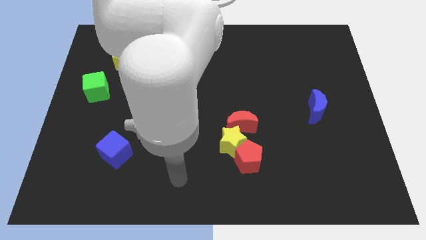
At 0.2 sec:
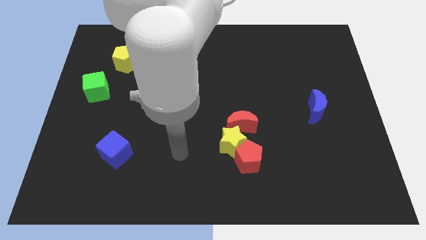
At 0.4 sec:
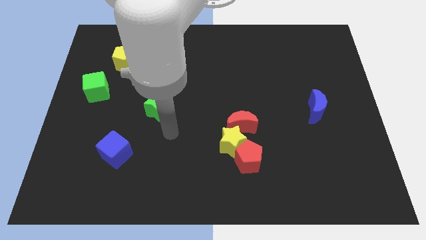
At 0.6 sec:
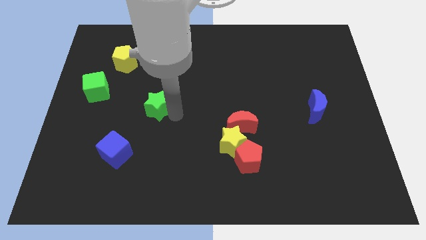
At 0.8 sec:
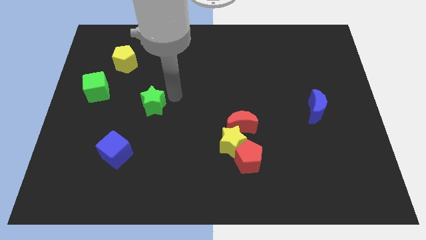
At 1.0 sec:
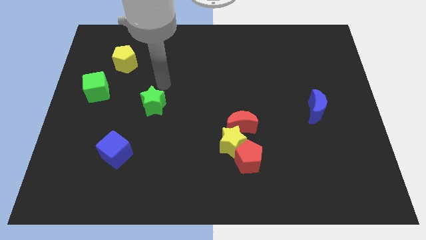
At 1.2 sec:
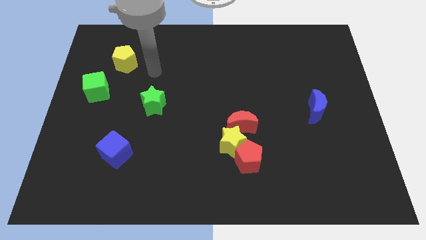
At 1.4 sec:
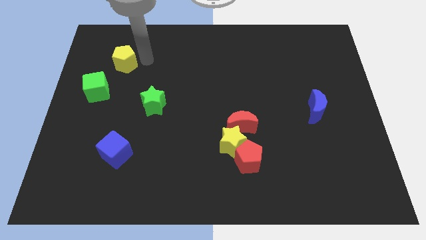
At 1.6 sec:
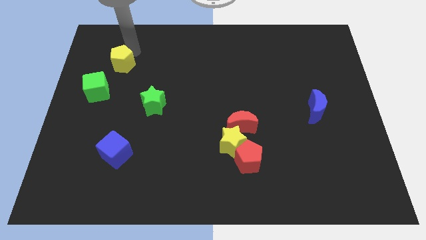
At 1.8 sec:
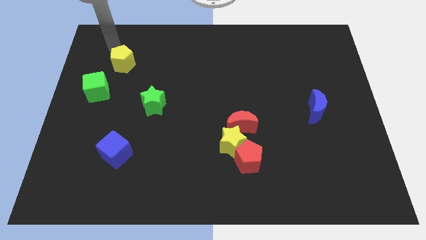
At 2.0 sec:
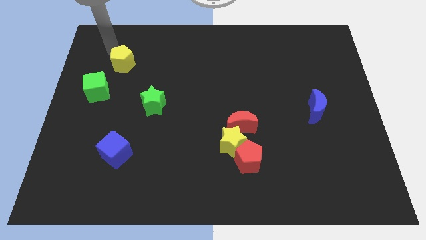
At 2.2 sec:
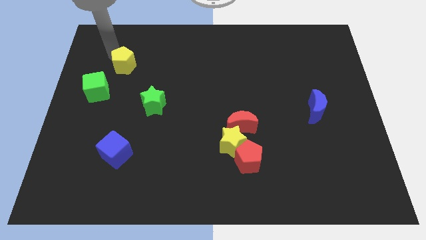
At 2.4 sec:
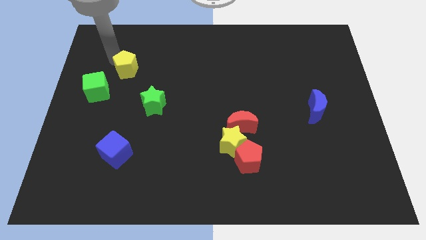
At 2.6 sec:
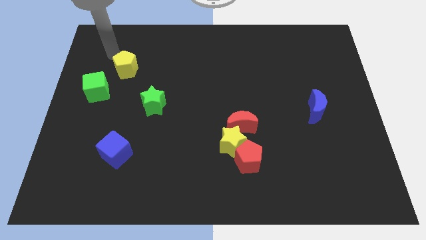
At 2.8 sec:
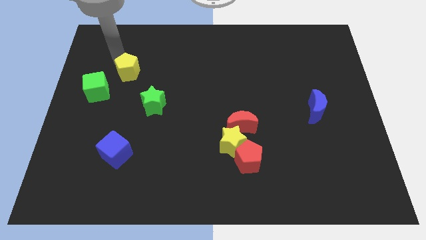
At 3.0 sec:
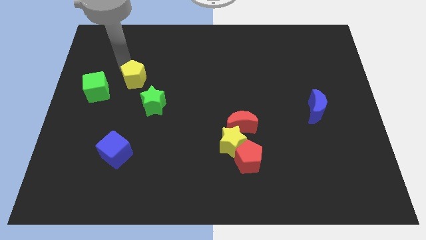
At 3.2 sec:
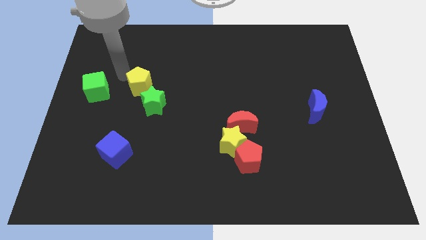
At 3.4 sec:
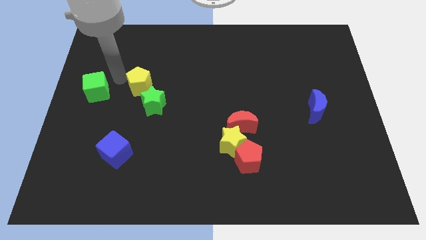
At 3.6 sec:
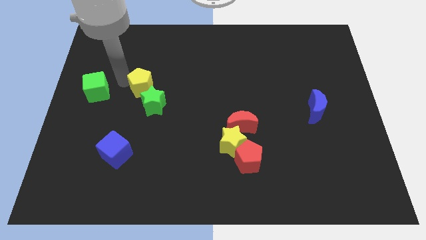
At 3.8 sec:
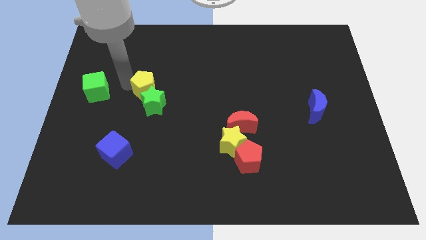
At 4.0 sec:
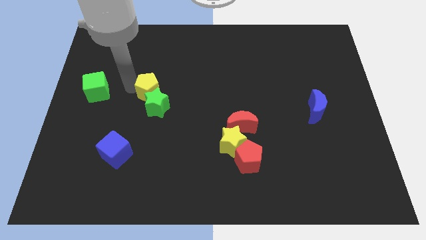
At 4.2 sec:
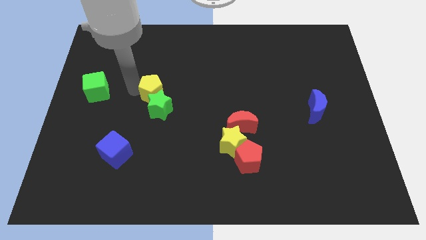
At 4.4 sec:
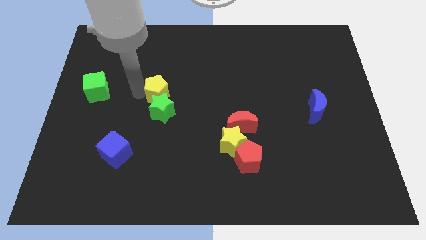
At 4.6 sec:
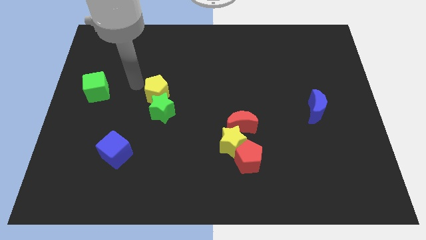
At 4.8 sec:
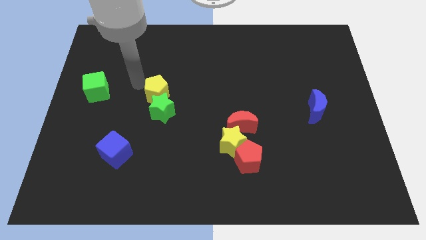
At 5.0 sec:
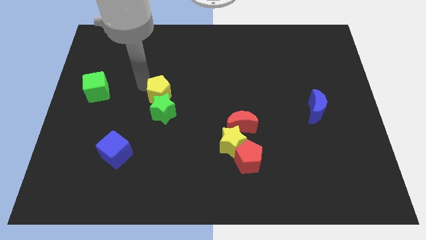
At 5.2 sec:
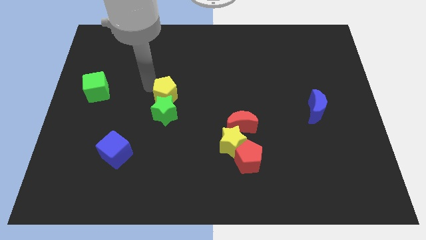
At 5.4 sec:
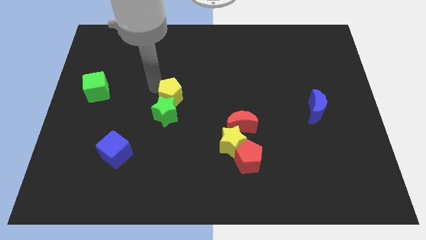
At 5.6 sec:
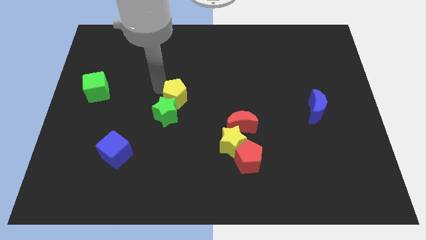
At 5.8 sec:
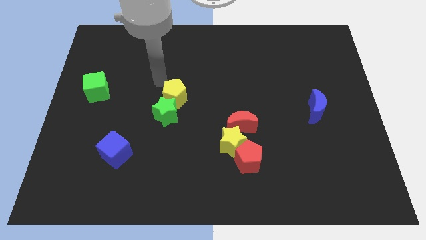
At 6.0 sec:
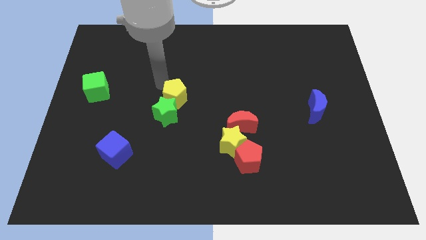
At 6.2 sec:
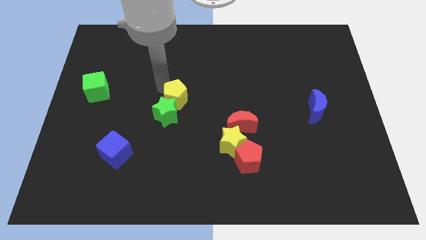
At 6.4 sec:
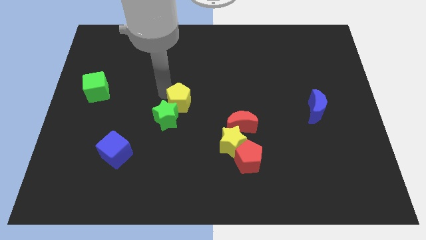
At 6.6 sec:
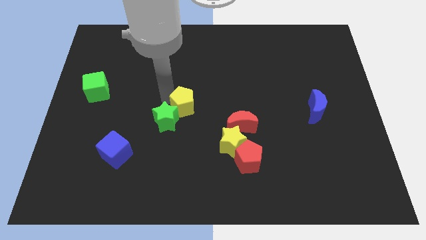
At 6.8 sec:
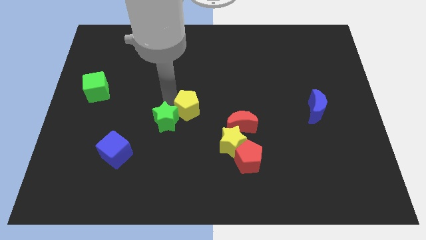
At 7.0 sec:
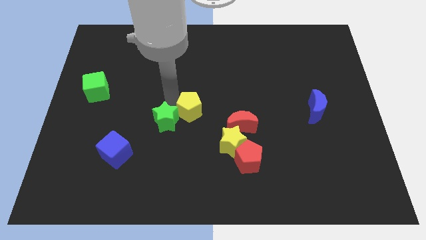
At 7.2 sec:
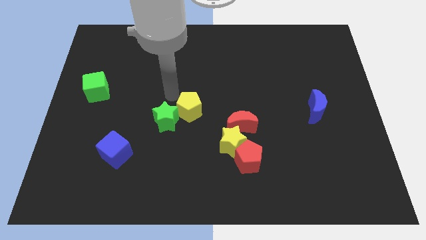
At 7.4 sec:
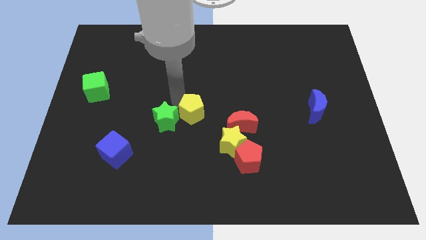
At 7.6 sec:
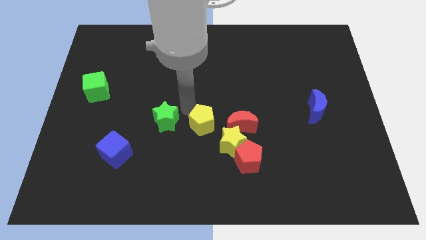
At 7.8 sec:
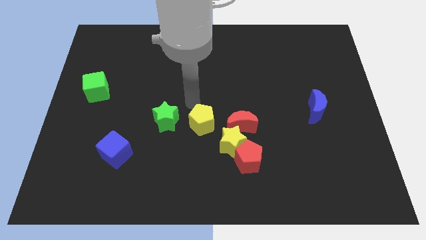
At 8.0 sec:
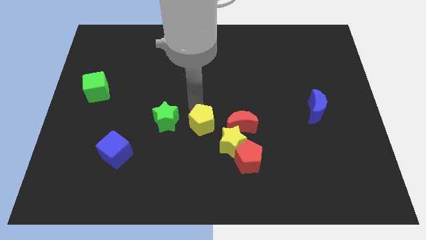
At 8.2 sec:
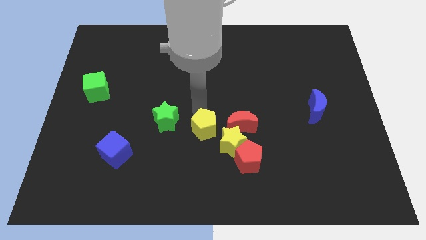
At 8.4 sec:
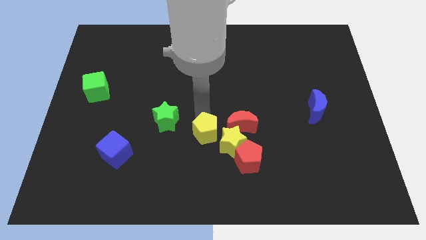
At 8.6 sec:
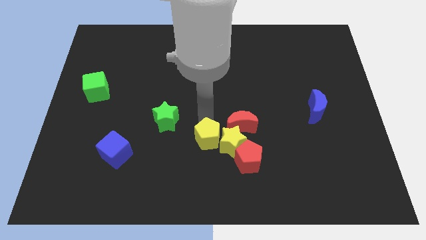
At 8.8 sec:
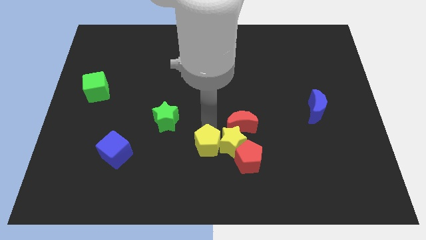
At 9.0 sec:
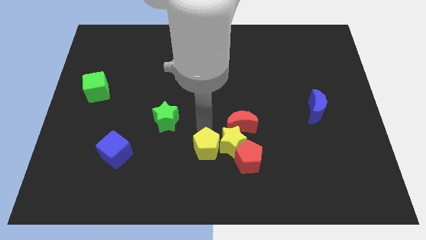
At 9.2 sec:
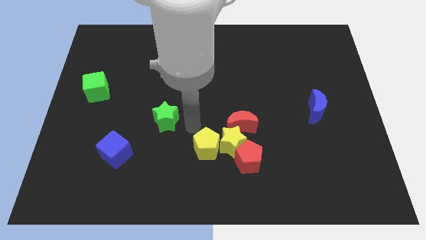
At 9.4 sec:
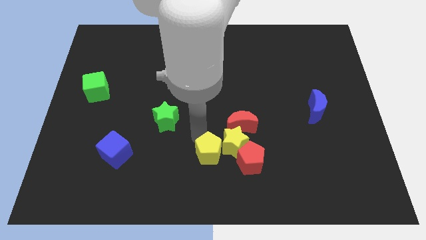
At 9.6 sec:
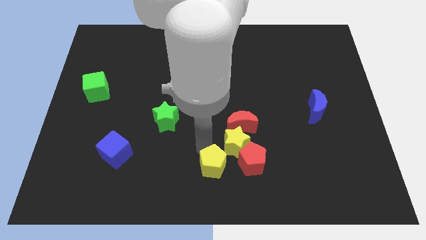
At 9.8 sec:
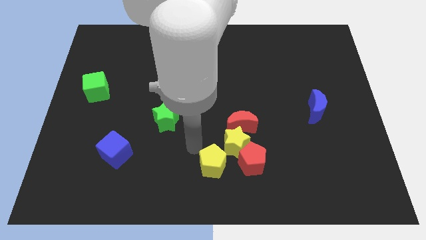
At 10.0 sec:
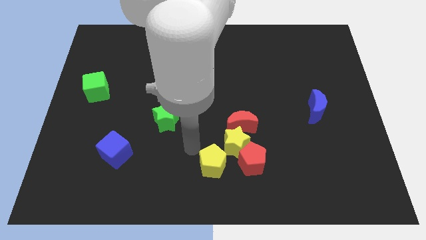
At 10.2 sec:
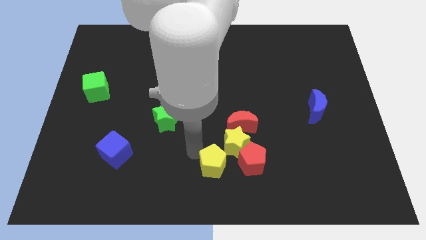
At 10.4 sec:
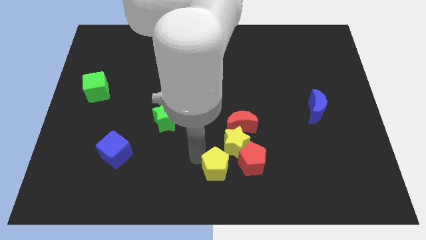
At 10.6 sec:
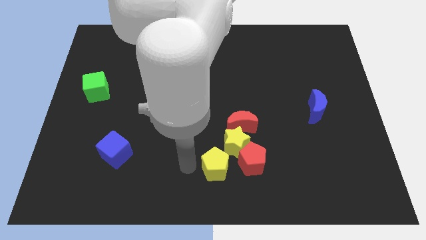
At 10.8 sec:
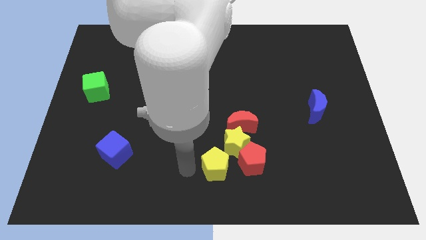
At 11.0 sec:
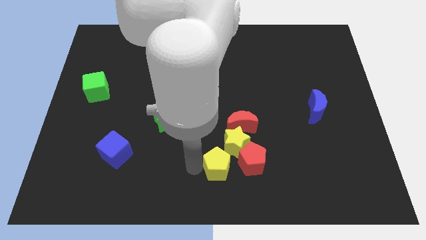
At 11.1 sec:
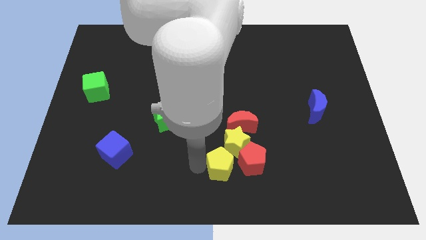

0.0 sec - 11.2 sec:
slide the yellow pentagon to the bottom of the red moon

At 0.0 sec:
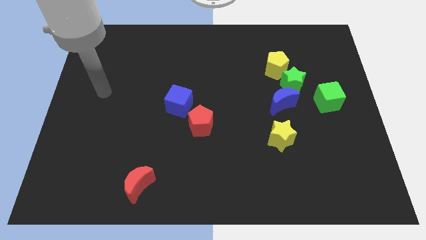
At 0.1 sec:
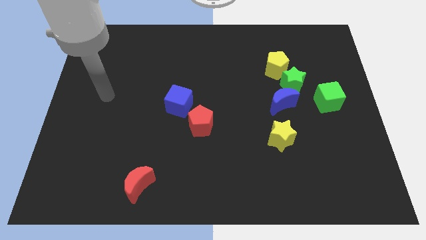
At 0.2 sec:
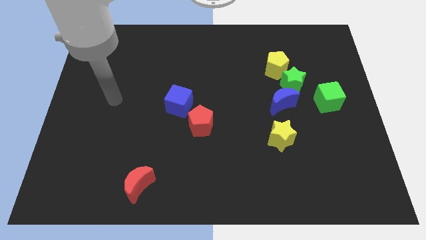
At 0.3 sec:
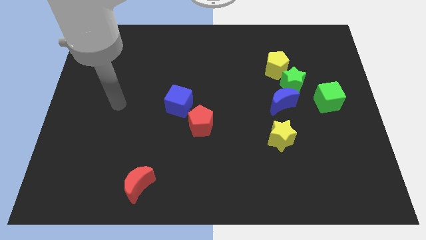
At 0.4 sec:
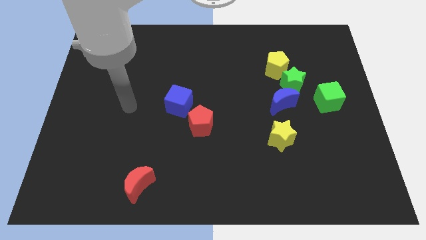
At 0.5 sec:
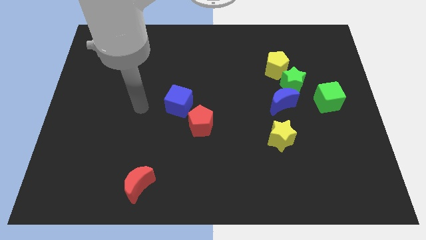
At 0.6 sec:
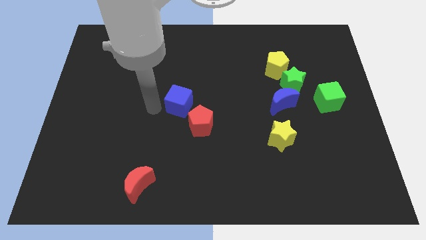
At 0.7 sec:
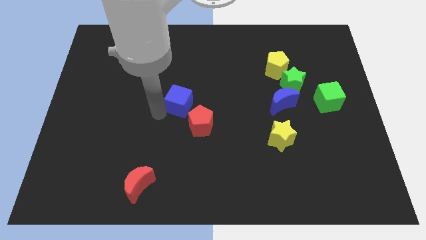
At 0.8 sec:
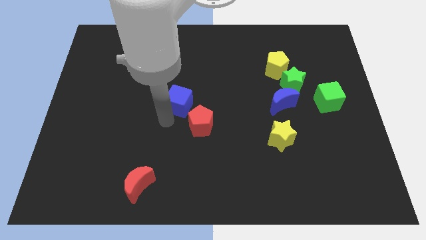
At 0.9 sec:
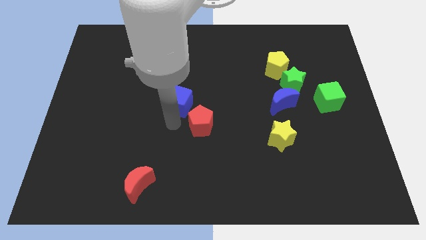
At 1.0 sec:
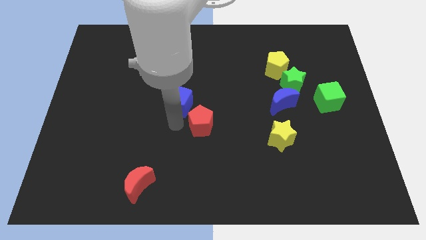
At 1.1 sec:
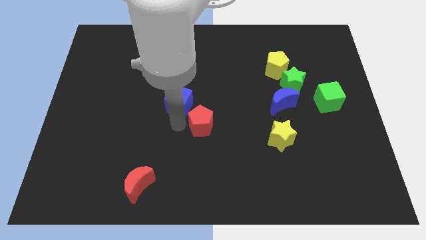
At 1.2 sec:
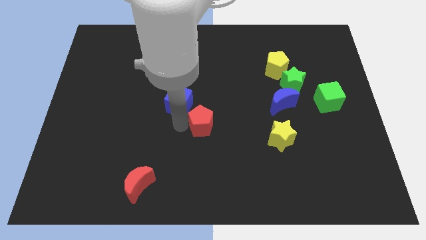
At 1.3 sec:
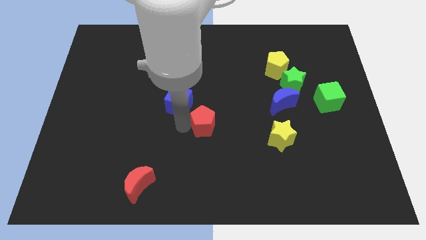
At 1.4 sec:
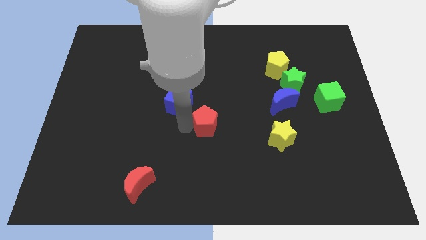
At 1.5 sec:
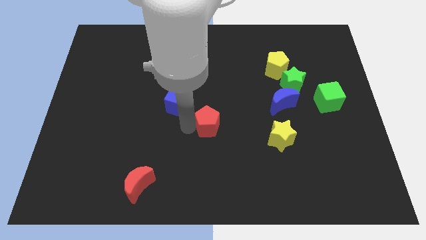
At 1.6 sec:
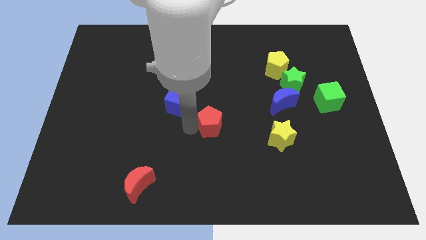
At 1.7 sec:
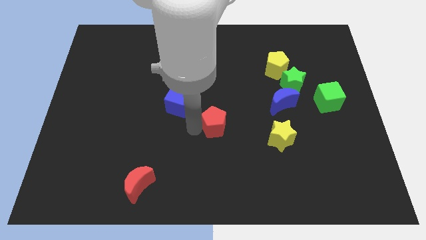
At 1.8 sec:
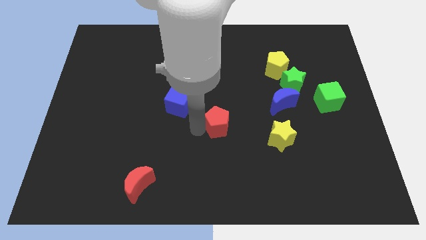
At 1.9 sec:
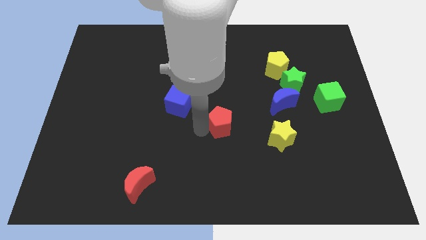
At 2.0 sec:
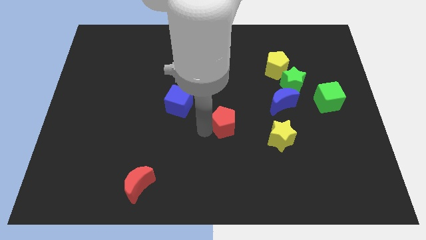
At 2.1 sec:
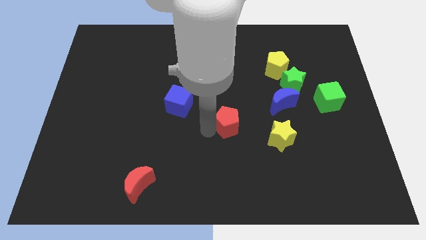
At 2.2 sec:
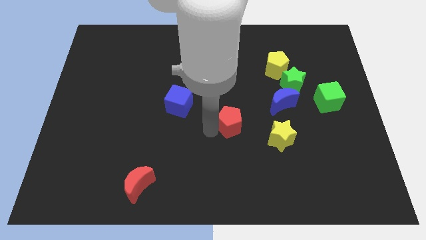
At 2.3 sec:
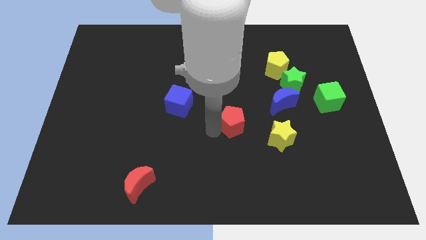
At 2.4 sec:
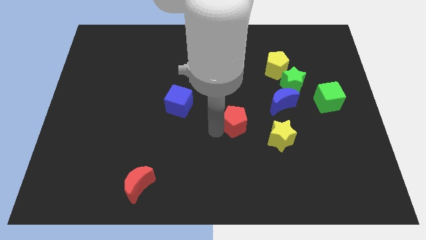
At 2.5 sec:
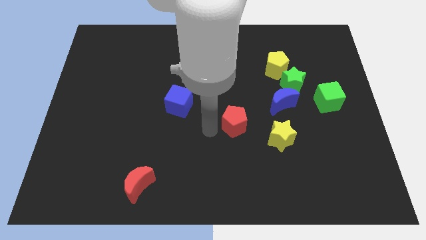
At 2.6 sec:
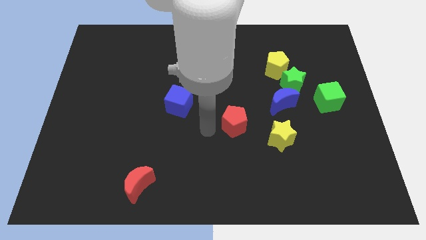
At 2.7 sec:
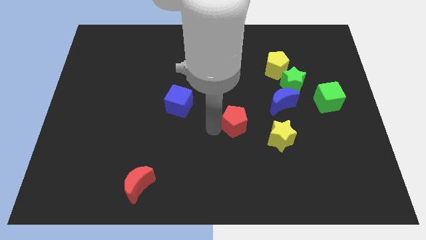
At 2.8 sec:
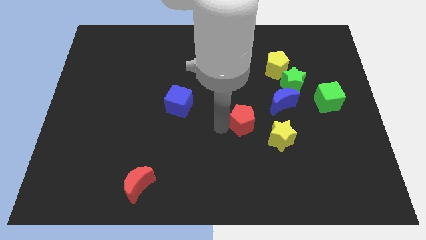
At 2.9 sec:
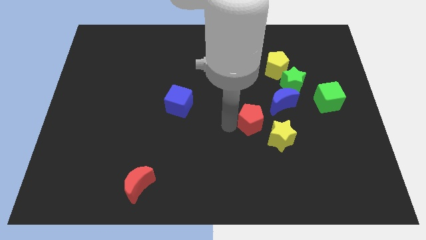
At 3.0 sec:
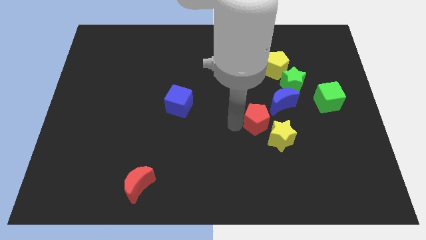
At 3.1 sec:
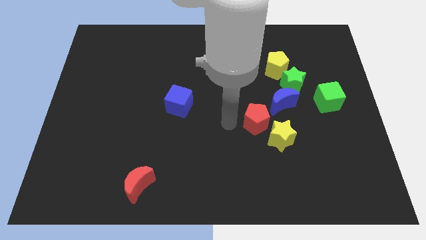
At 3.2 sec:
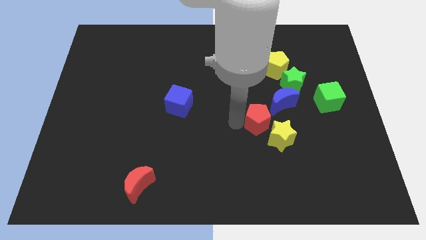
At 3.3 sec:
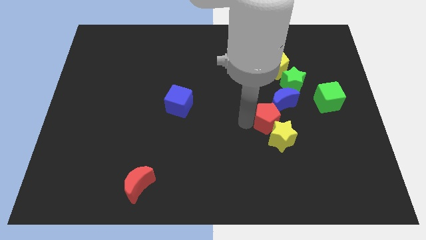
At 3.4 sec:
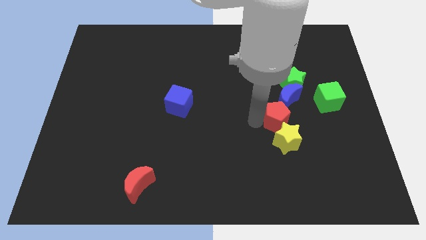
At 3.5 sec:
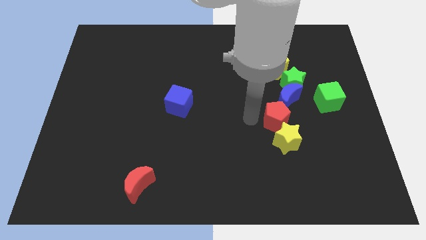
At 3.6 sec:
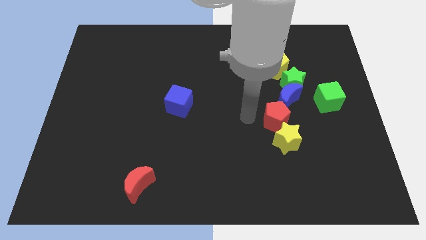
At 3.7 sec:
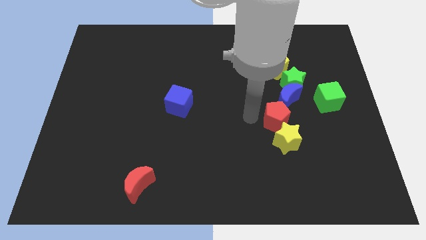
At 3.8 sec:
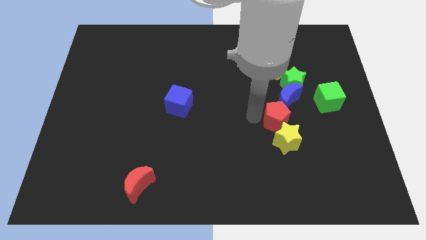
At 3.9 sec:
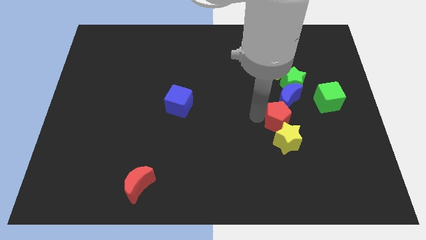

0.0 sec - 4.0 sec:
slide the red pentagon to the top right of the yellow star
